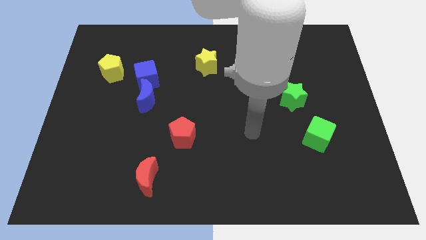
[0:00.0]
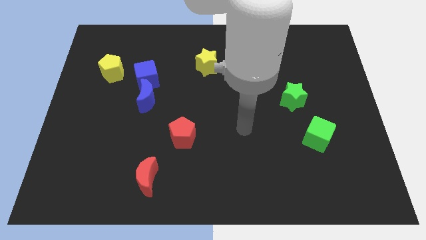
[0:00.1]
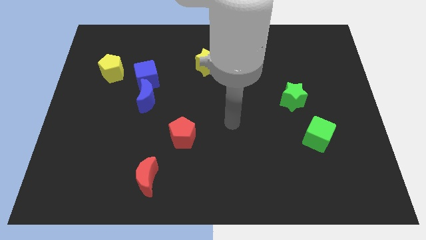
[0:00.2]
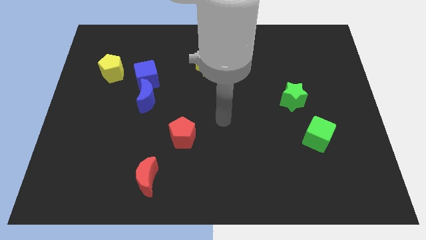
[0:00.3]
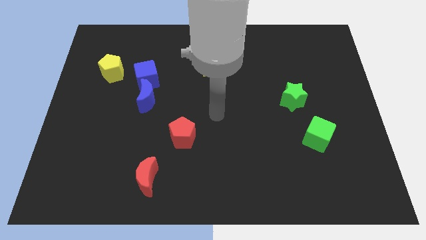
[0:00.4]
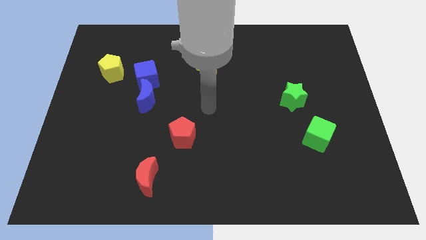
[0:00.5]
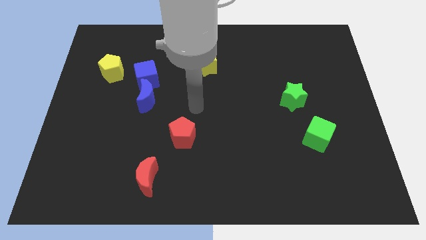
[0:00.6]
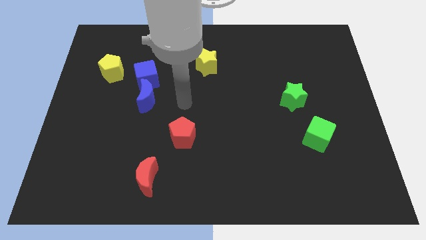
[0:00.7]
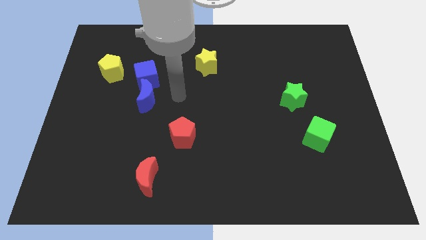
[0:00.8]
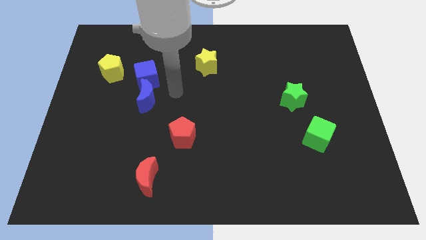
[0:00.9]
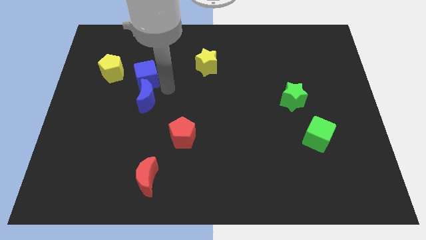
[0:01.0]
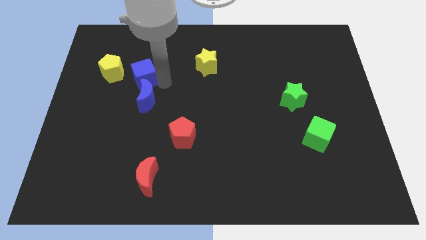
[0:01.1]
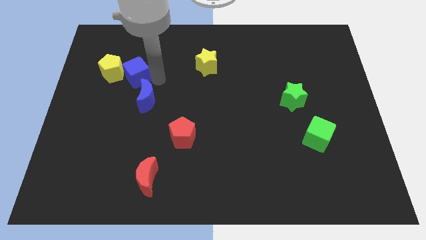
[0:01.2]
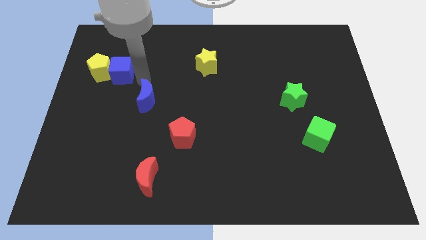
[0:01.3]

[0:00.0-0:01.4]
move the blue moon away from the blue cube

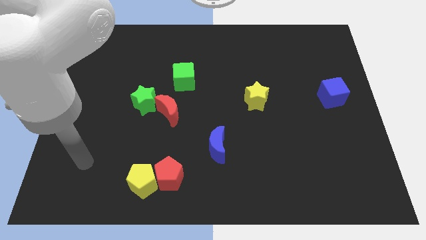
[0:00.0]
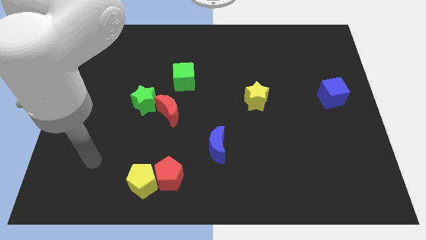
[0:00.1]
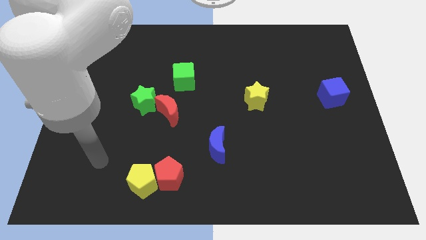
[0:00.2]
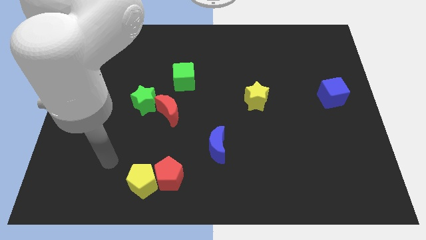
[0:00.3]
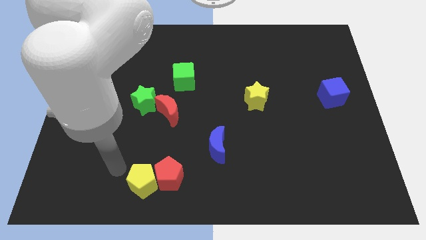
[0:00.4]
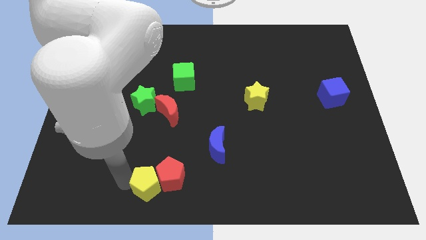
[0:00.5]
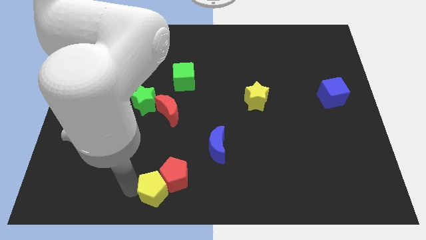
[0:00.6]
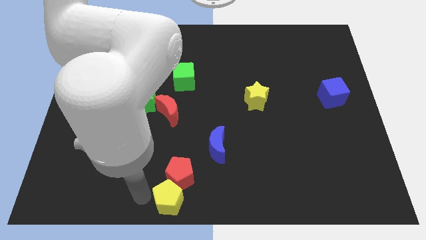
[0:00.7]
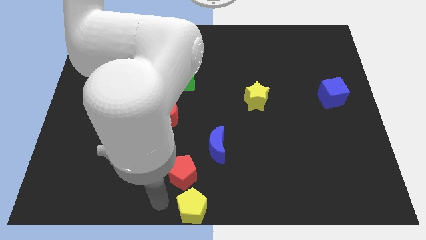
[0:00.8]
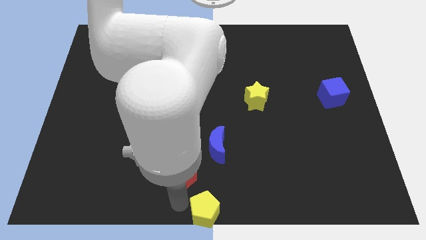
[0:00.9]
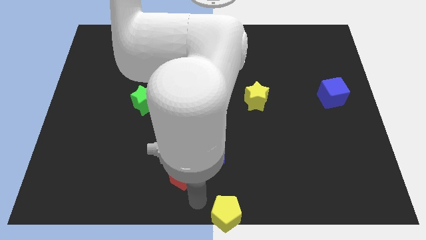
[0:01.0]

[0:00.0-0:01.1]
pull the red pentagon apart from the yellow pentagon

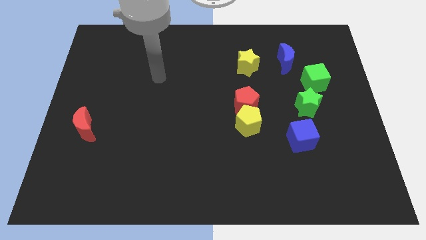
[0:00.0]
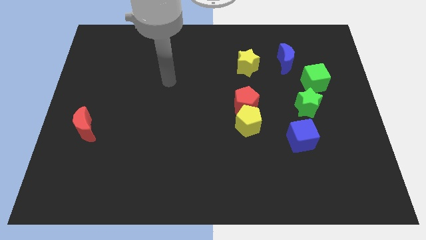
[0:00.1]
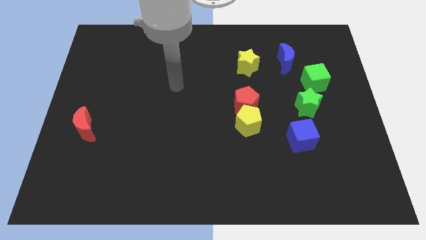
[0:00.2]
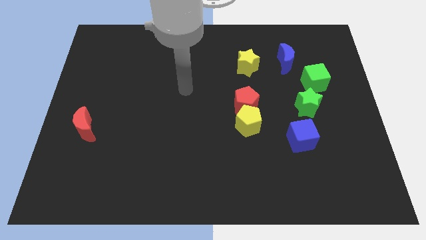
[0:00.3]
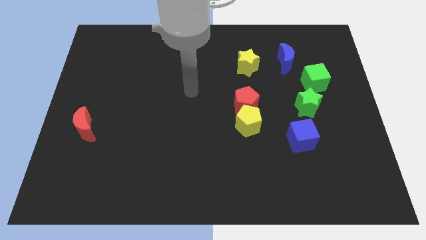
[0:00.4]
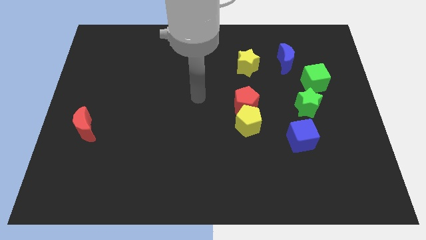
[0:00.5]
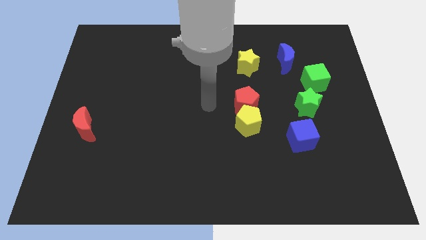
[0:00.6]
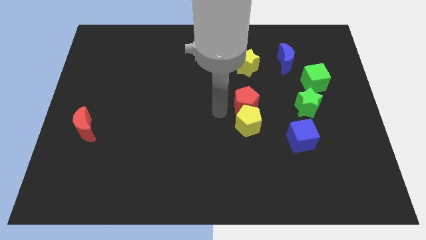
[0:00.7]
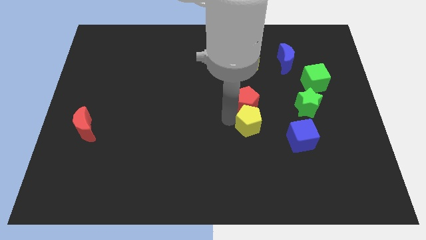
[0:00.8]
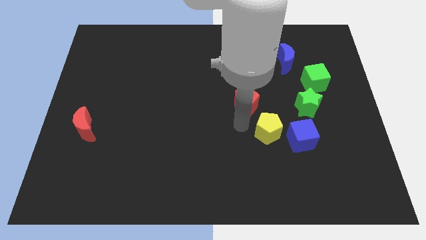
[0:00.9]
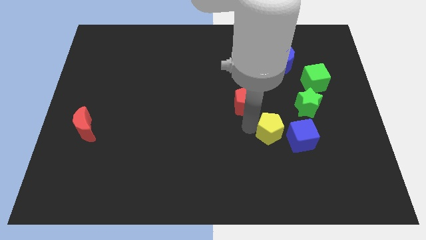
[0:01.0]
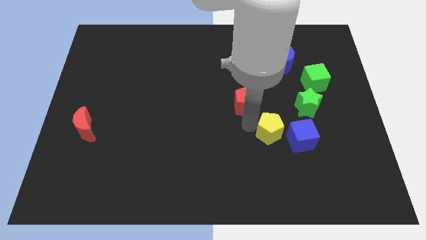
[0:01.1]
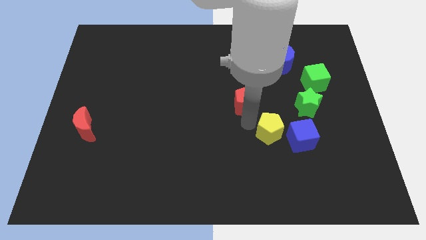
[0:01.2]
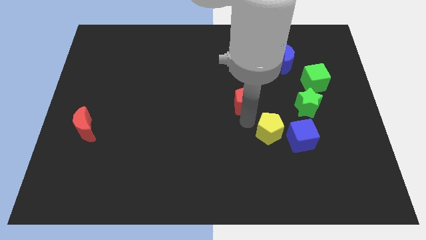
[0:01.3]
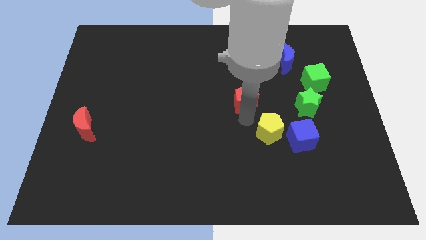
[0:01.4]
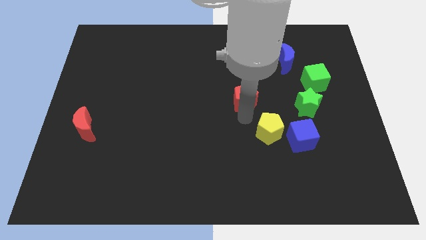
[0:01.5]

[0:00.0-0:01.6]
move the red pentagon away from the yellow pentagon

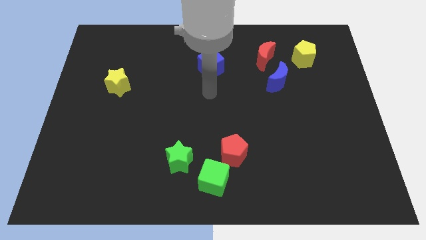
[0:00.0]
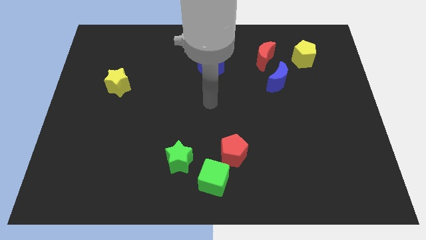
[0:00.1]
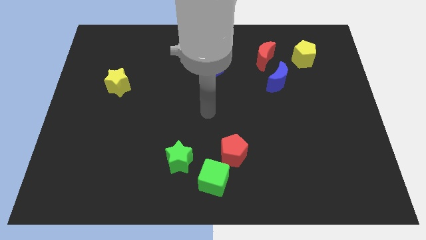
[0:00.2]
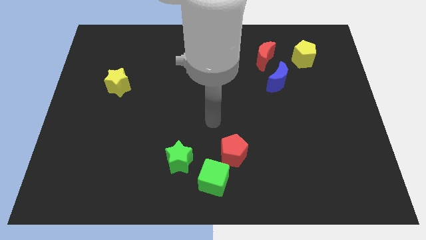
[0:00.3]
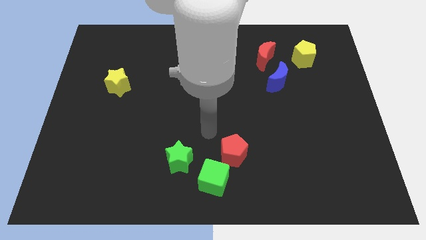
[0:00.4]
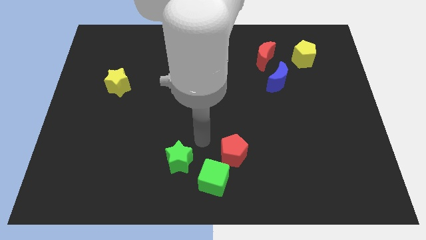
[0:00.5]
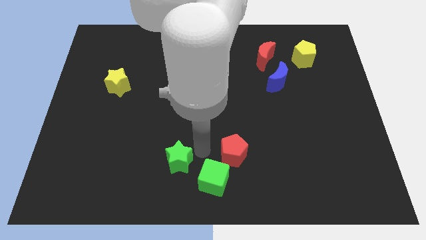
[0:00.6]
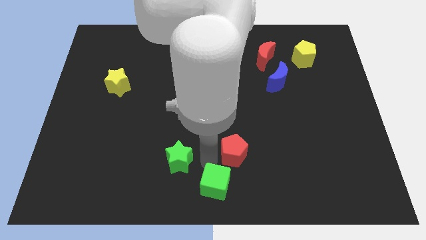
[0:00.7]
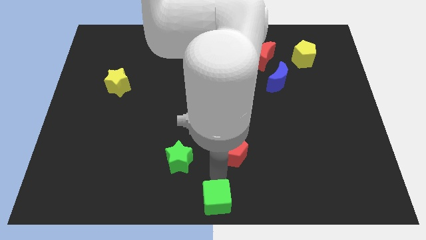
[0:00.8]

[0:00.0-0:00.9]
move the red pentagon away from the green cube

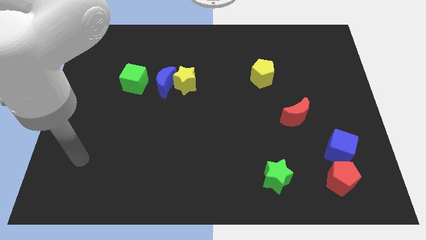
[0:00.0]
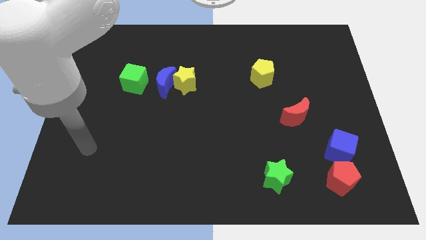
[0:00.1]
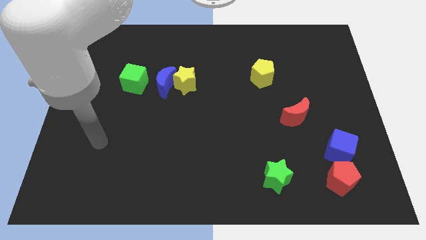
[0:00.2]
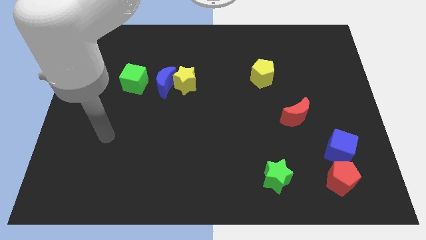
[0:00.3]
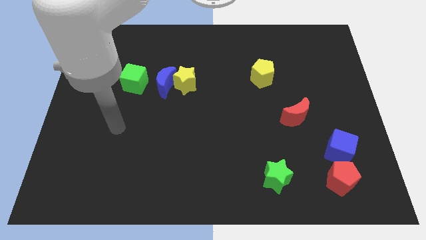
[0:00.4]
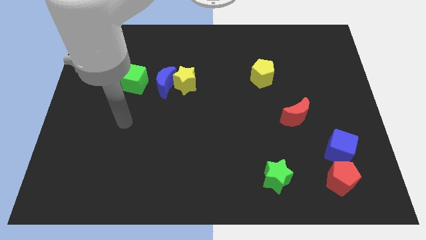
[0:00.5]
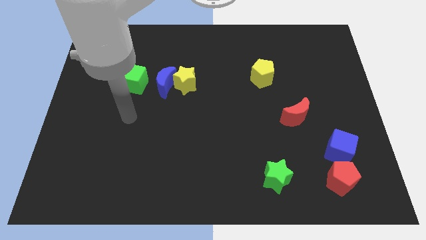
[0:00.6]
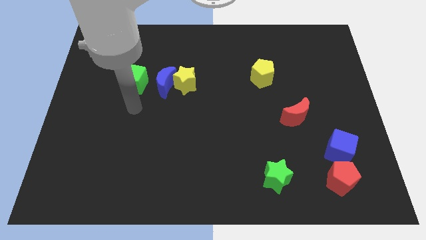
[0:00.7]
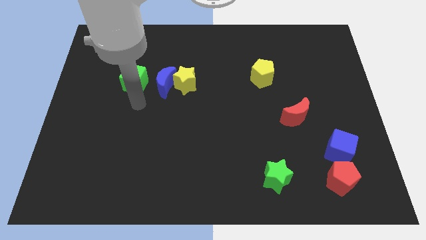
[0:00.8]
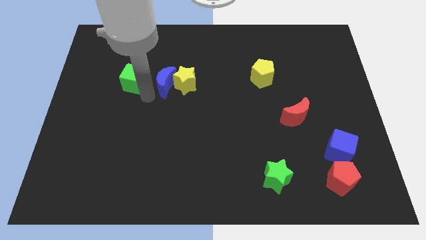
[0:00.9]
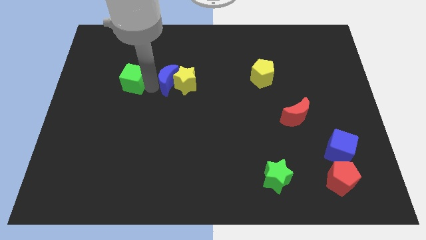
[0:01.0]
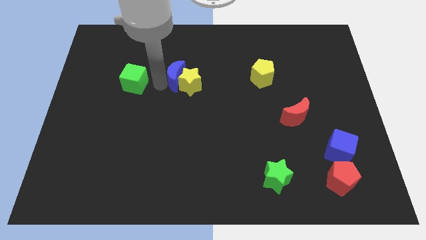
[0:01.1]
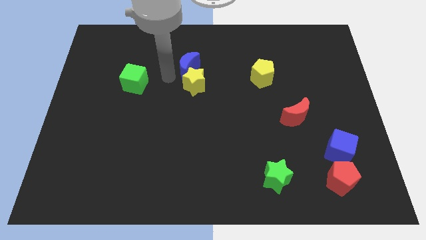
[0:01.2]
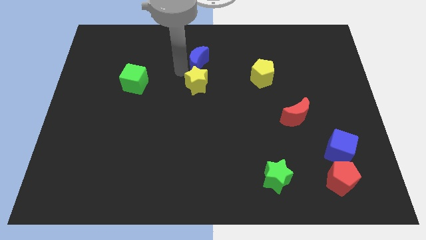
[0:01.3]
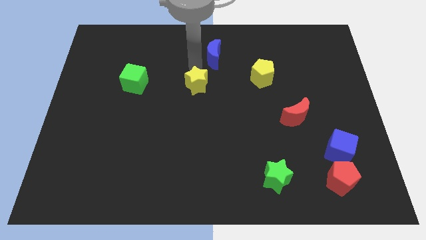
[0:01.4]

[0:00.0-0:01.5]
separate the yellow star from the blue moon

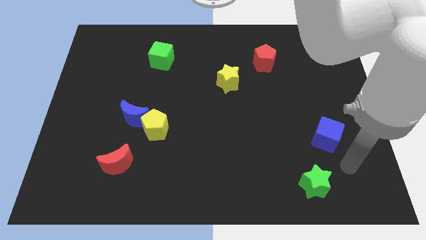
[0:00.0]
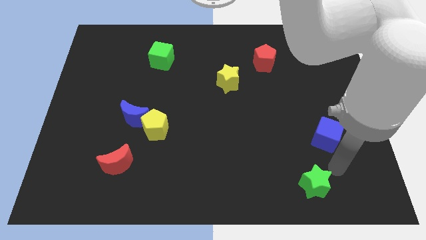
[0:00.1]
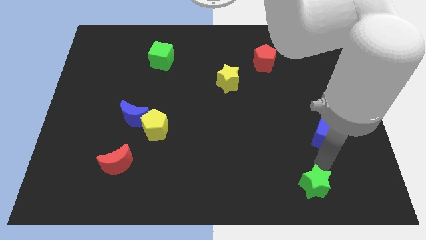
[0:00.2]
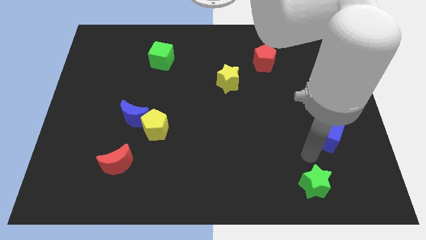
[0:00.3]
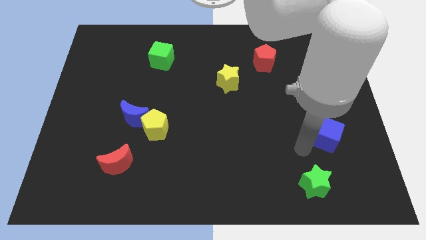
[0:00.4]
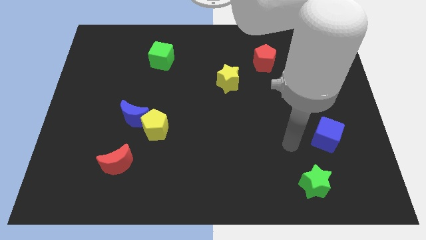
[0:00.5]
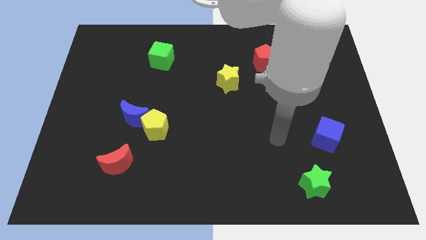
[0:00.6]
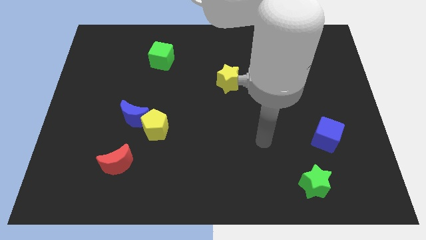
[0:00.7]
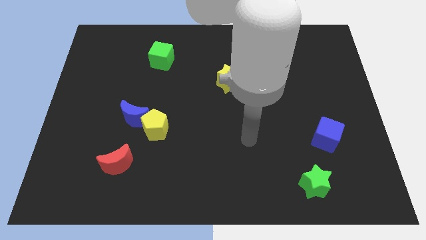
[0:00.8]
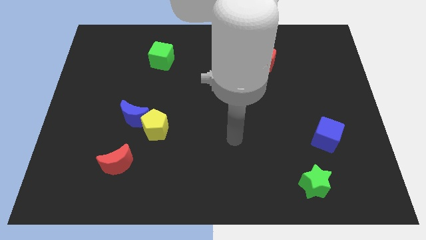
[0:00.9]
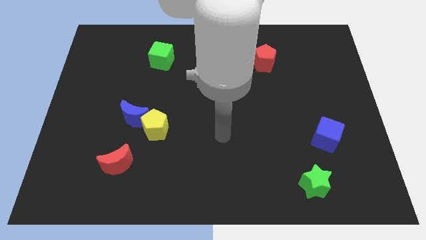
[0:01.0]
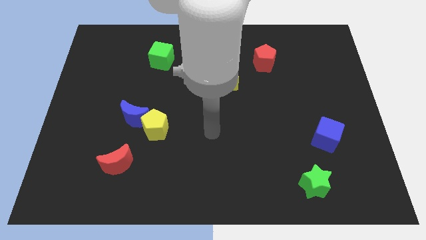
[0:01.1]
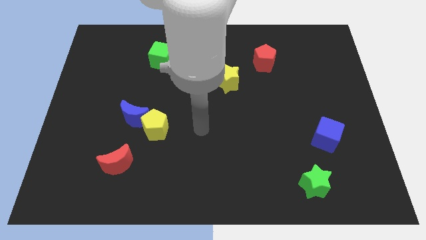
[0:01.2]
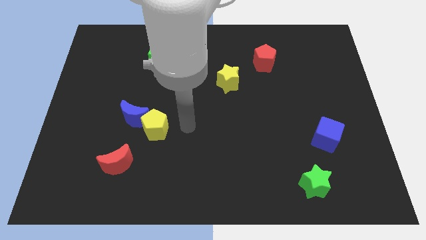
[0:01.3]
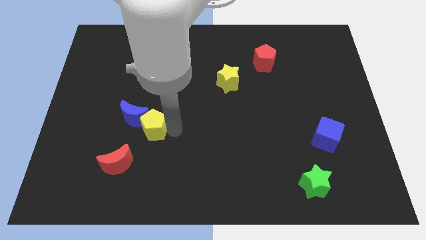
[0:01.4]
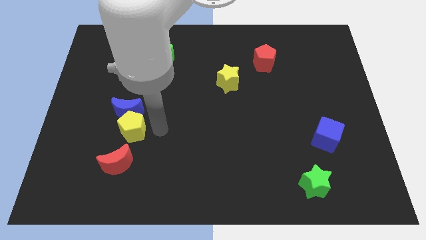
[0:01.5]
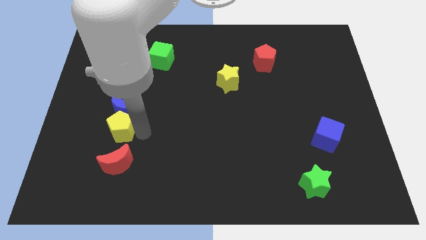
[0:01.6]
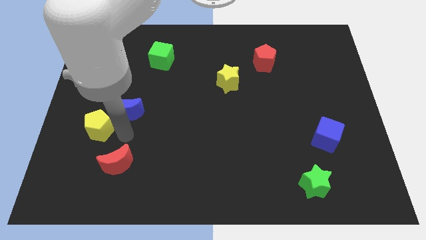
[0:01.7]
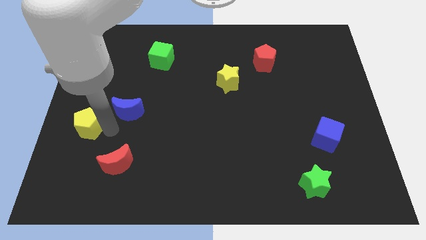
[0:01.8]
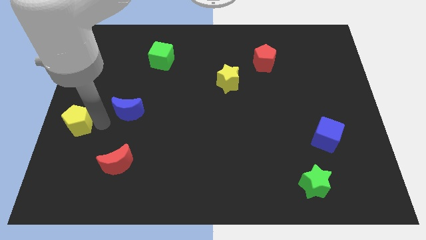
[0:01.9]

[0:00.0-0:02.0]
pull the blue moon apart from the yellow pentagon

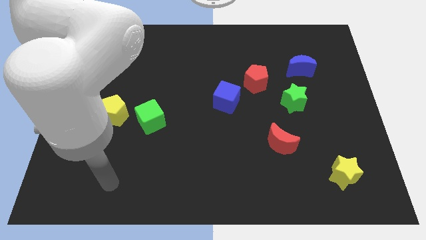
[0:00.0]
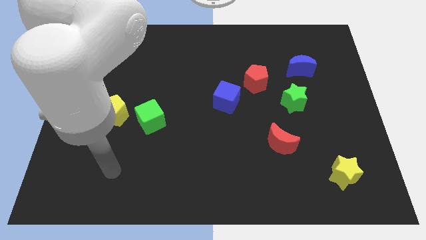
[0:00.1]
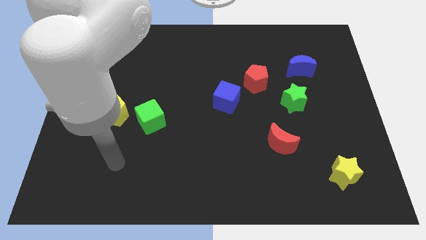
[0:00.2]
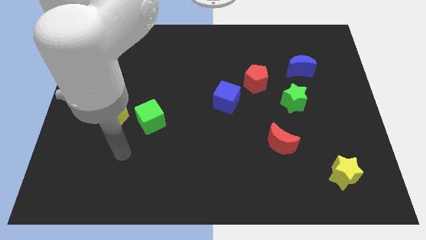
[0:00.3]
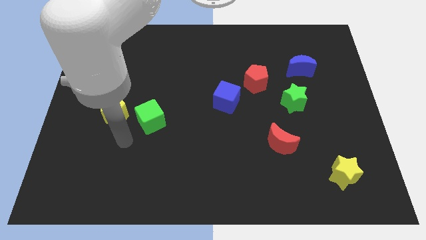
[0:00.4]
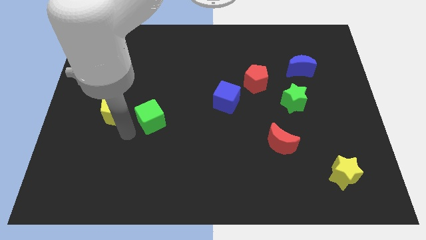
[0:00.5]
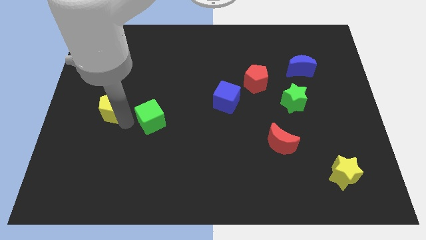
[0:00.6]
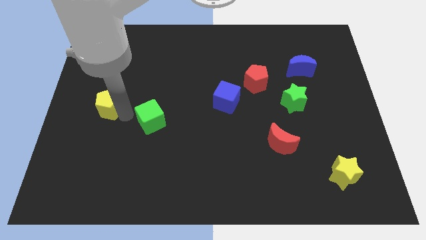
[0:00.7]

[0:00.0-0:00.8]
separate the green cube from the yellow pentagon

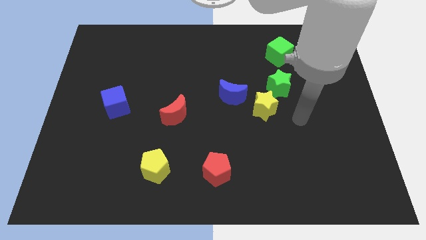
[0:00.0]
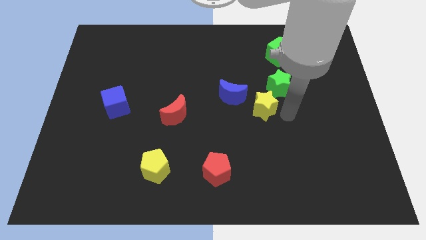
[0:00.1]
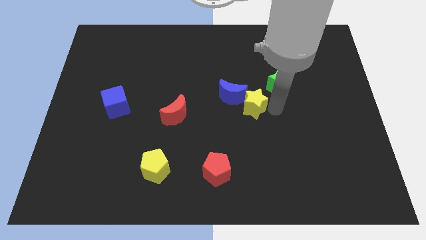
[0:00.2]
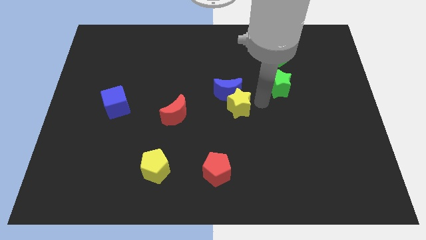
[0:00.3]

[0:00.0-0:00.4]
separate the green star from the yellow star
